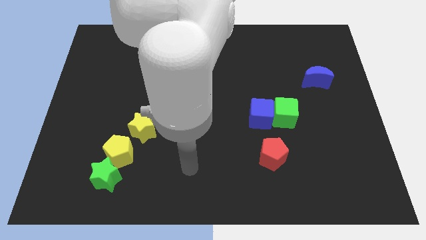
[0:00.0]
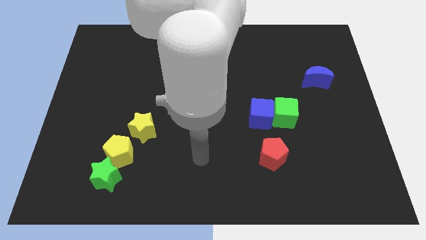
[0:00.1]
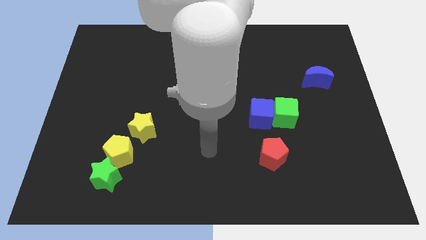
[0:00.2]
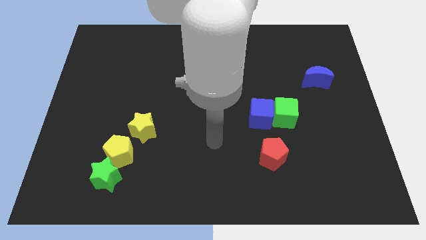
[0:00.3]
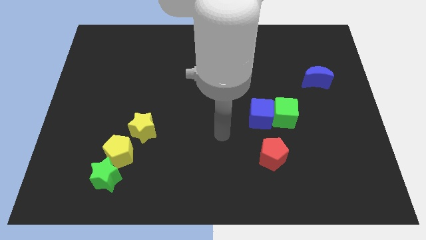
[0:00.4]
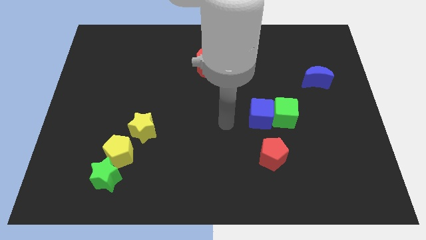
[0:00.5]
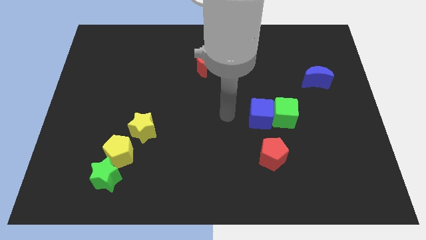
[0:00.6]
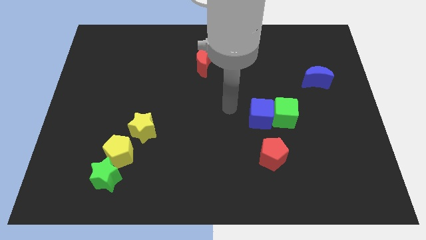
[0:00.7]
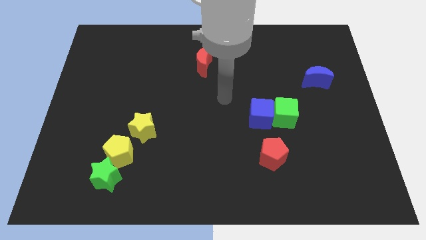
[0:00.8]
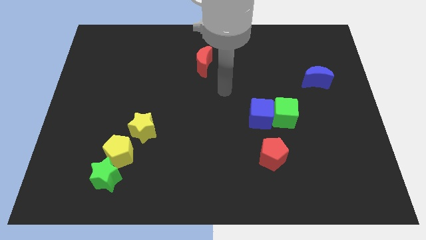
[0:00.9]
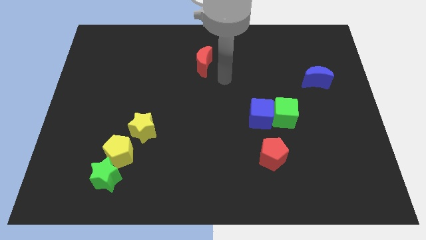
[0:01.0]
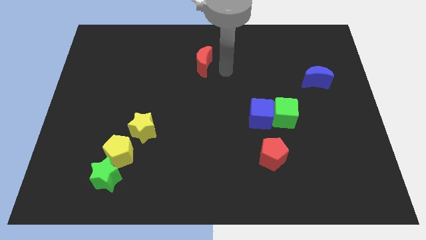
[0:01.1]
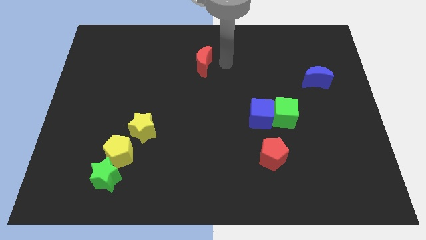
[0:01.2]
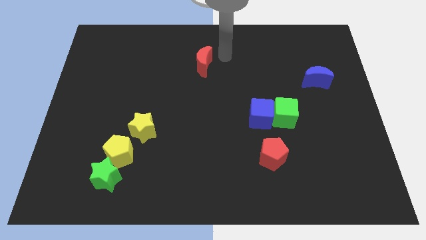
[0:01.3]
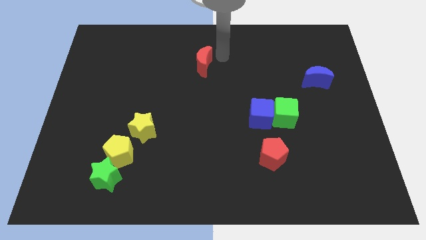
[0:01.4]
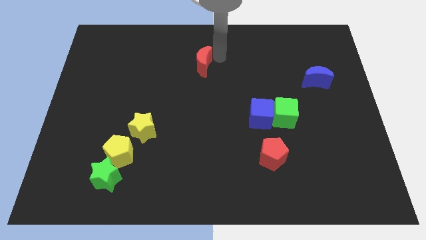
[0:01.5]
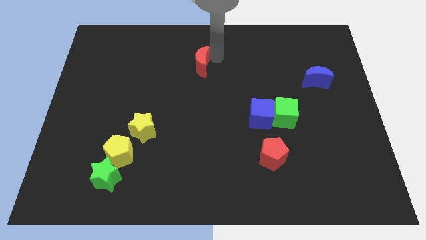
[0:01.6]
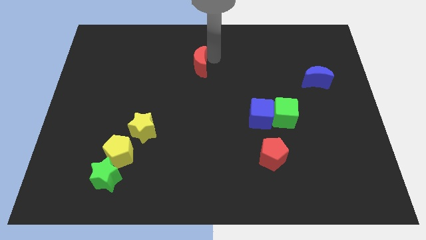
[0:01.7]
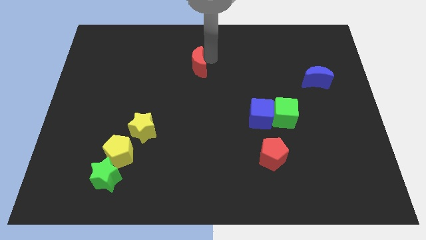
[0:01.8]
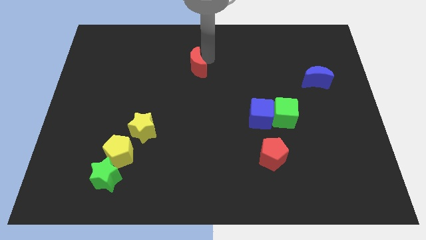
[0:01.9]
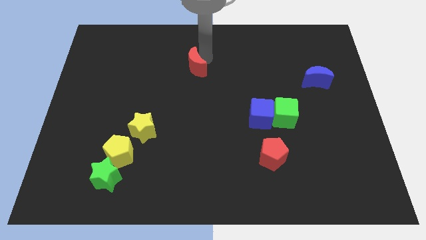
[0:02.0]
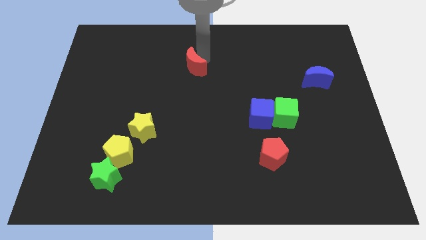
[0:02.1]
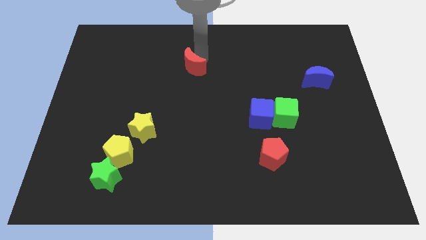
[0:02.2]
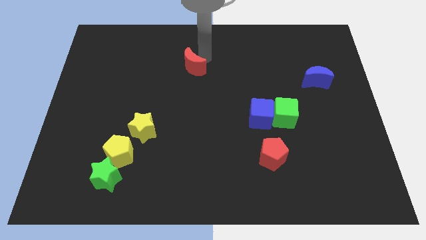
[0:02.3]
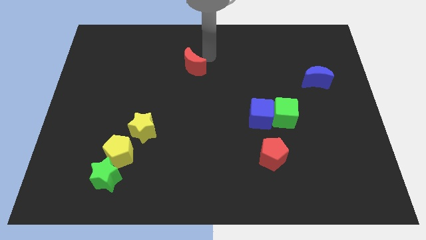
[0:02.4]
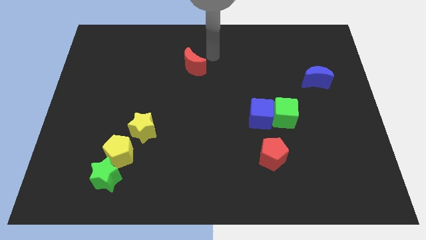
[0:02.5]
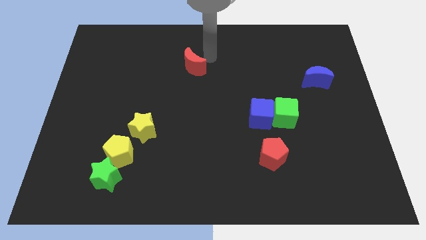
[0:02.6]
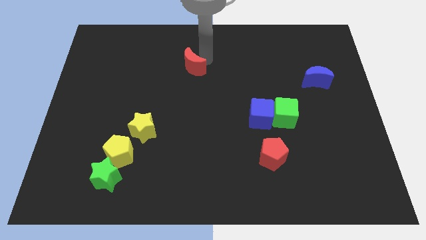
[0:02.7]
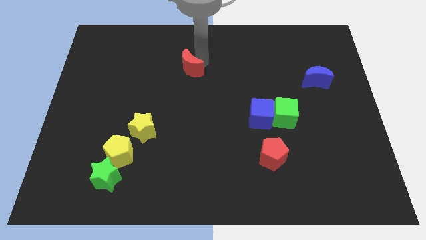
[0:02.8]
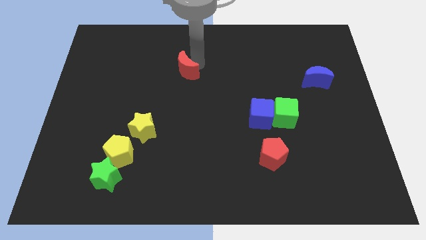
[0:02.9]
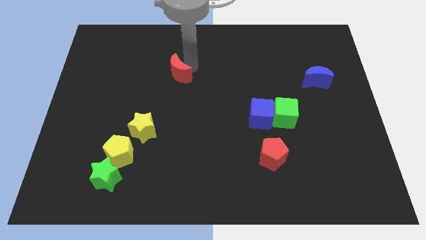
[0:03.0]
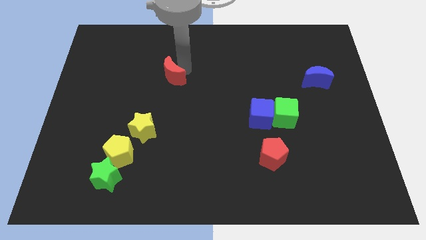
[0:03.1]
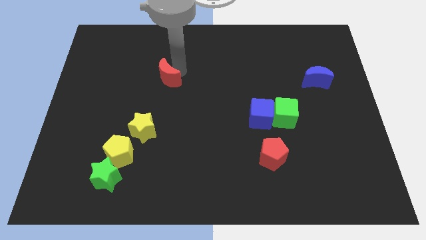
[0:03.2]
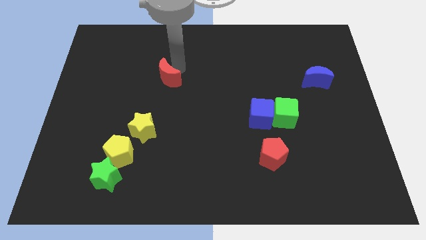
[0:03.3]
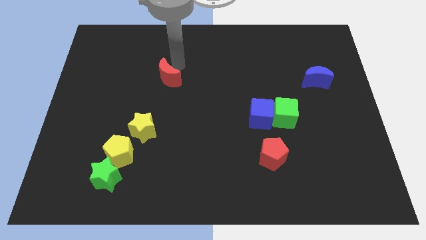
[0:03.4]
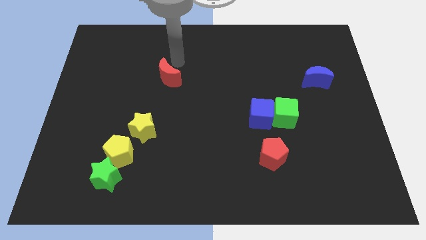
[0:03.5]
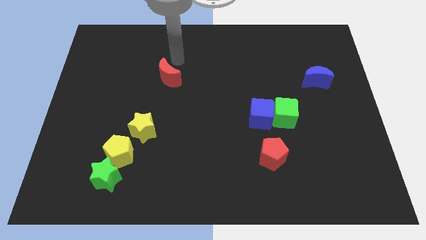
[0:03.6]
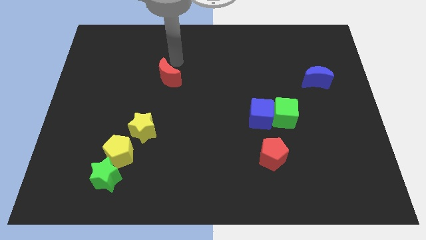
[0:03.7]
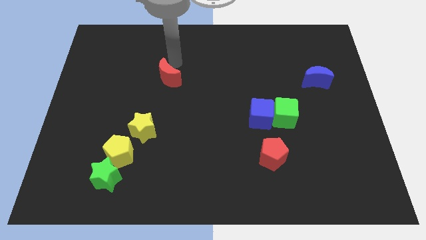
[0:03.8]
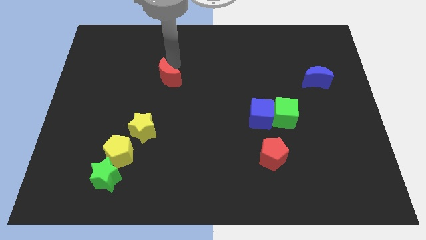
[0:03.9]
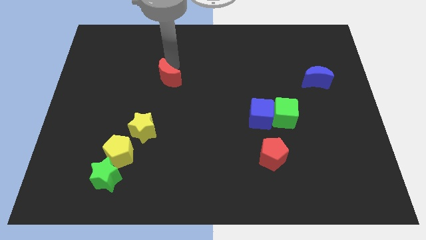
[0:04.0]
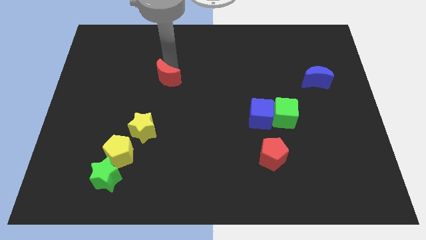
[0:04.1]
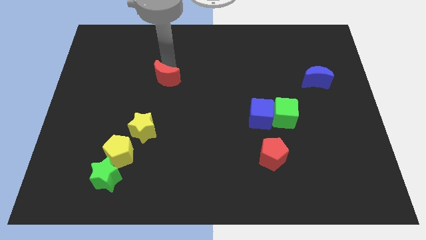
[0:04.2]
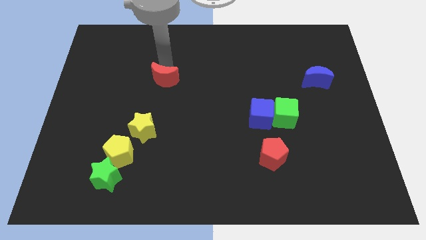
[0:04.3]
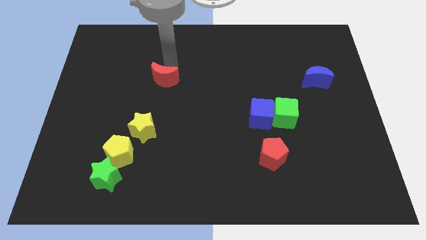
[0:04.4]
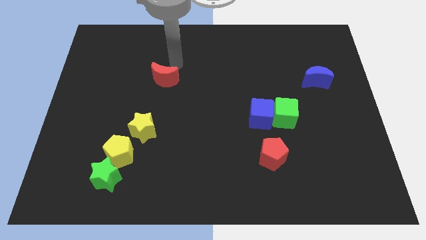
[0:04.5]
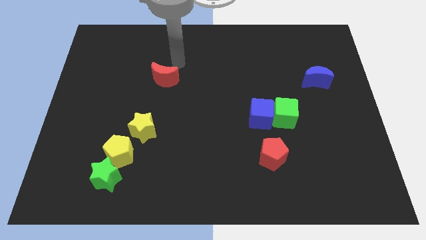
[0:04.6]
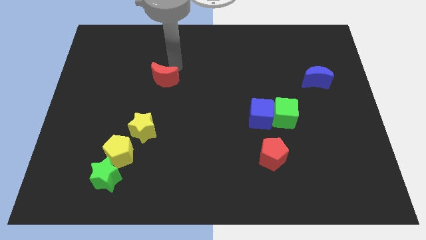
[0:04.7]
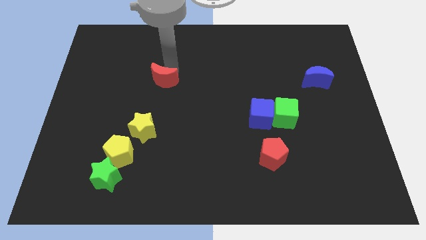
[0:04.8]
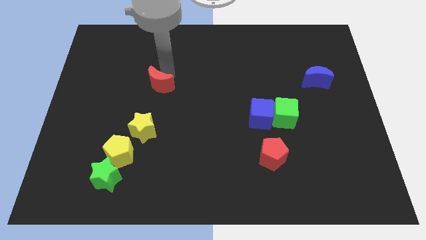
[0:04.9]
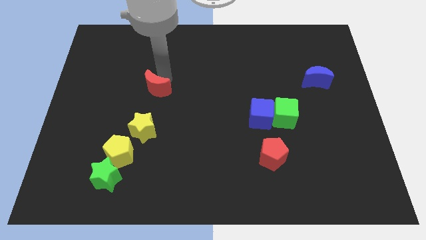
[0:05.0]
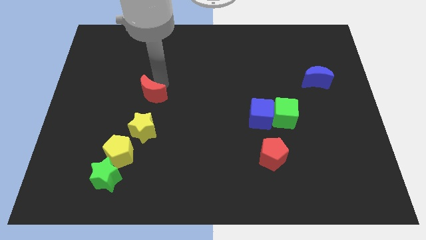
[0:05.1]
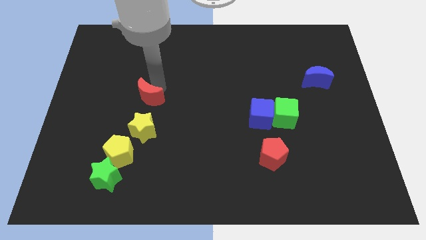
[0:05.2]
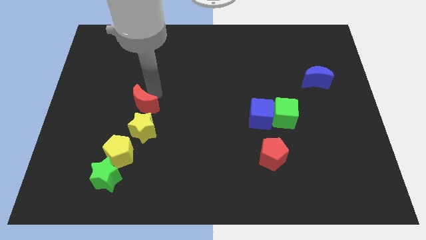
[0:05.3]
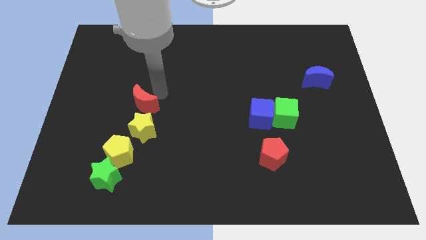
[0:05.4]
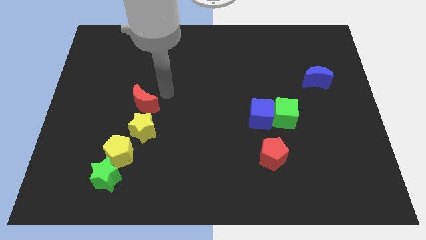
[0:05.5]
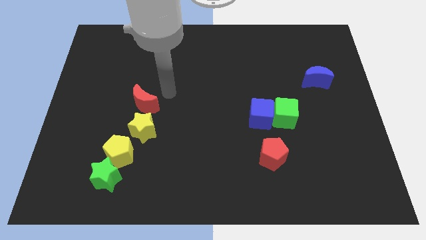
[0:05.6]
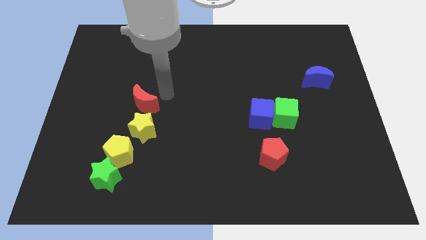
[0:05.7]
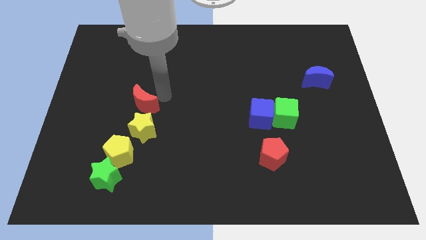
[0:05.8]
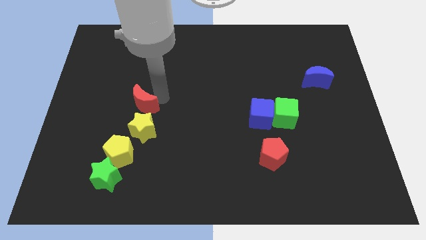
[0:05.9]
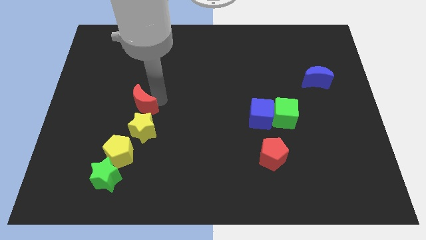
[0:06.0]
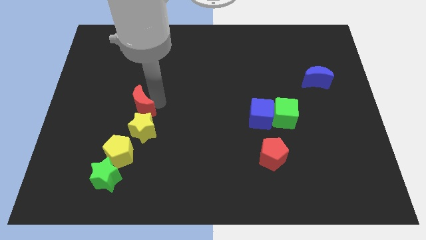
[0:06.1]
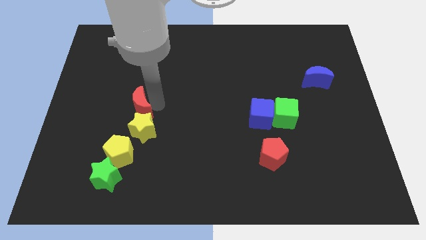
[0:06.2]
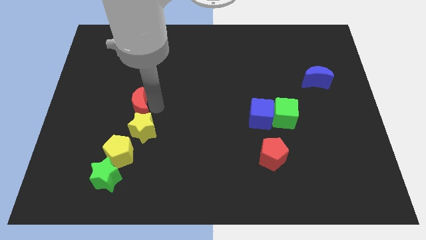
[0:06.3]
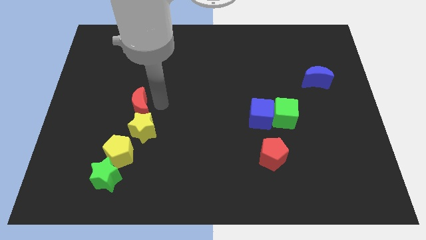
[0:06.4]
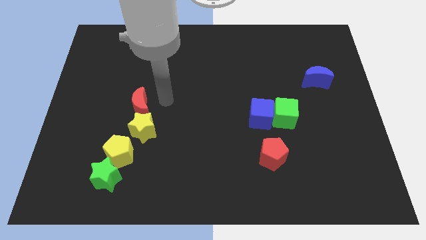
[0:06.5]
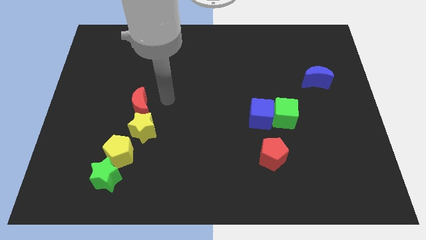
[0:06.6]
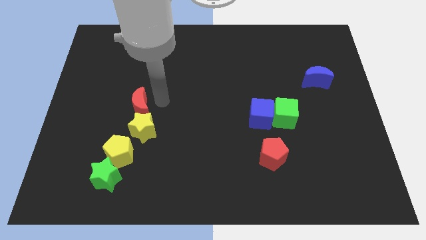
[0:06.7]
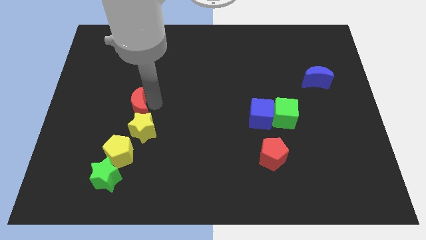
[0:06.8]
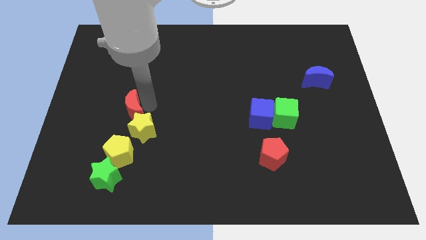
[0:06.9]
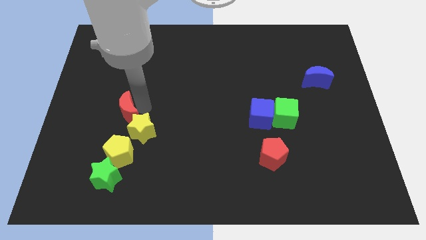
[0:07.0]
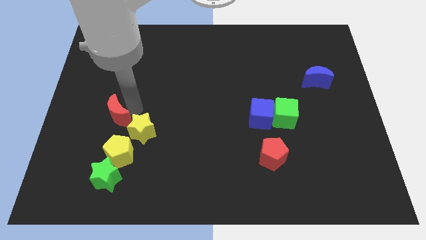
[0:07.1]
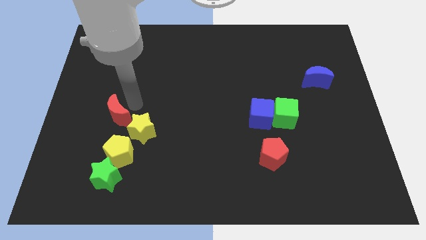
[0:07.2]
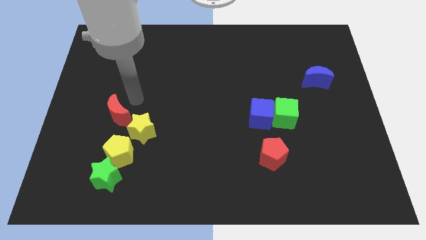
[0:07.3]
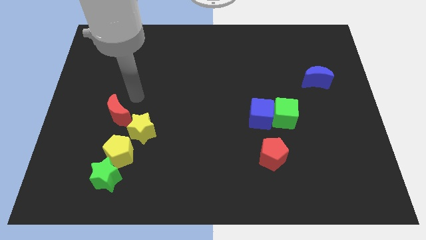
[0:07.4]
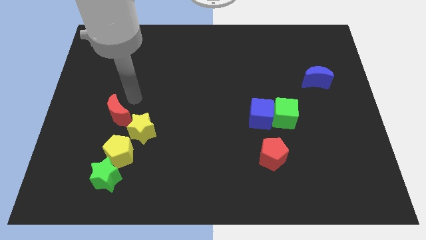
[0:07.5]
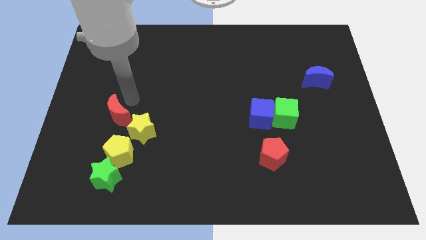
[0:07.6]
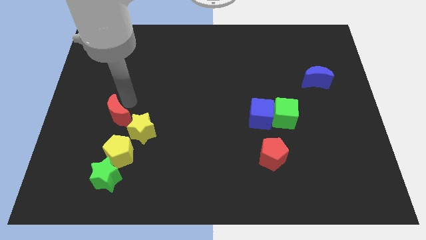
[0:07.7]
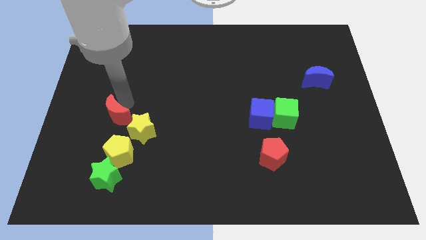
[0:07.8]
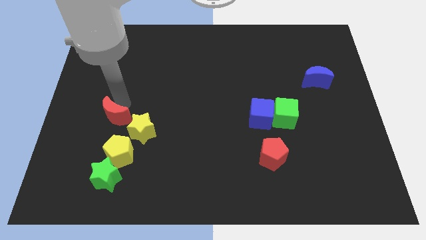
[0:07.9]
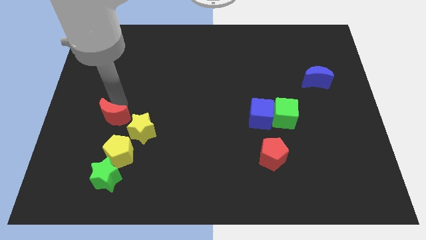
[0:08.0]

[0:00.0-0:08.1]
push the red moon diagonally up and to the left of the yellow pentagon
